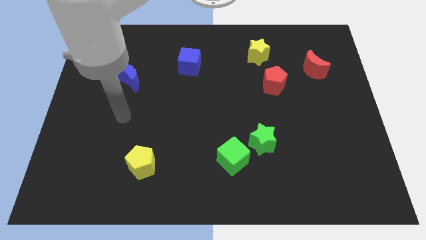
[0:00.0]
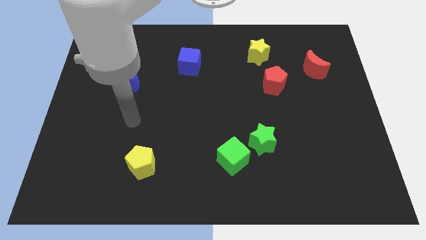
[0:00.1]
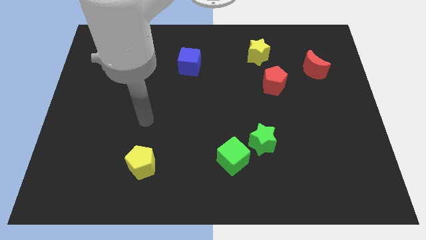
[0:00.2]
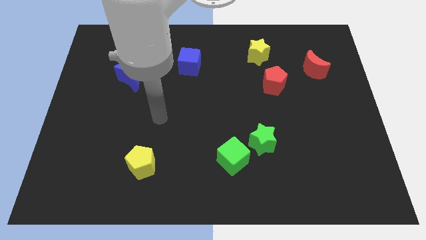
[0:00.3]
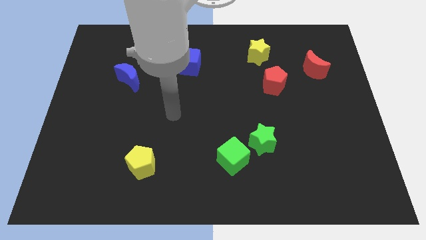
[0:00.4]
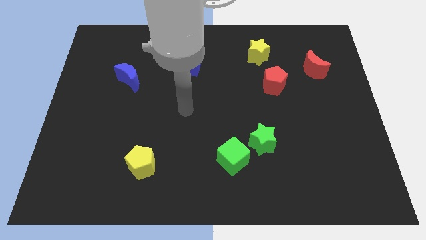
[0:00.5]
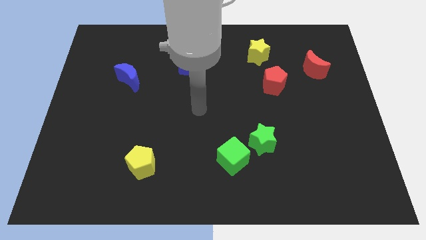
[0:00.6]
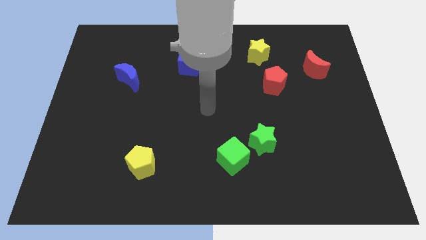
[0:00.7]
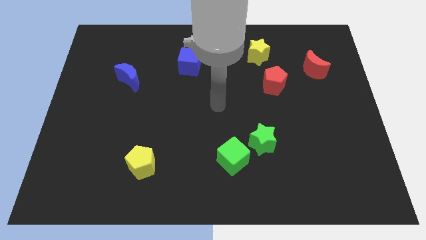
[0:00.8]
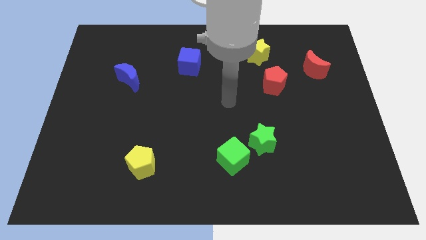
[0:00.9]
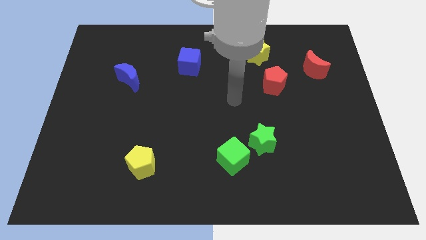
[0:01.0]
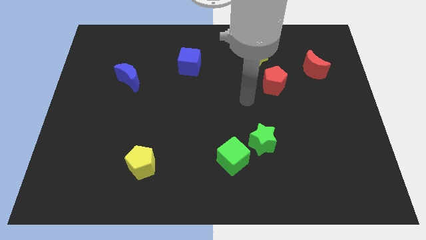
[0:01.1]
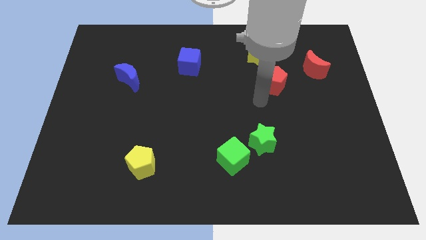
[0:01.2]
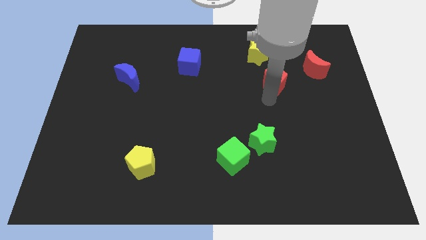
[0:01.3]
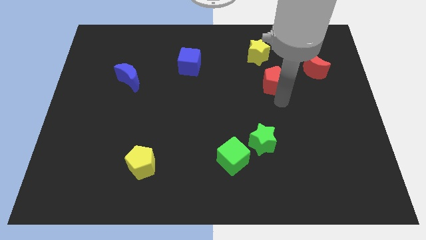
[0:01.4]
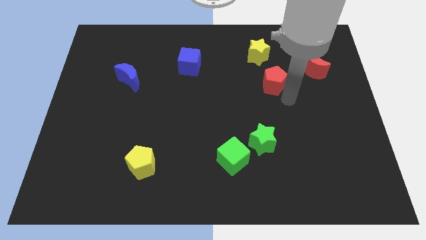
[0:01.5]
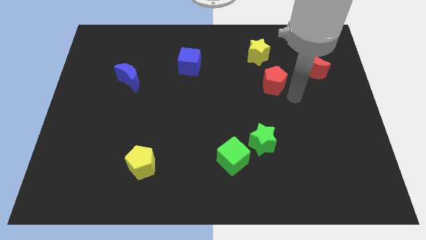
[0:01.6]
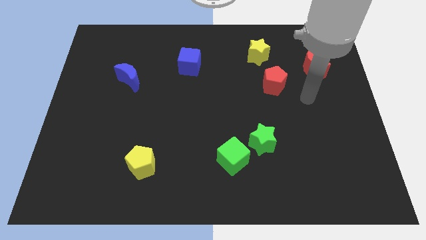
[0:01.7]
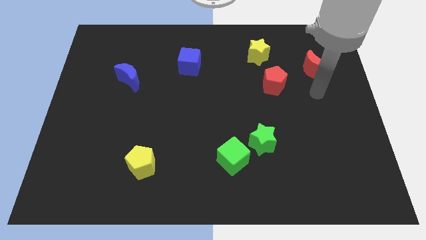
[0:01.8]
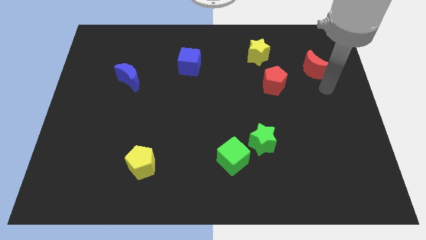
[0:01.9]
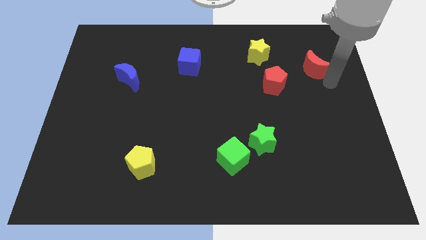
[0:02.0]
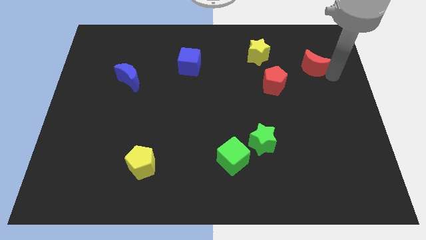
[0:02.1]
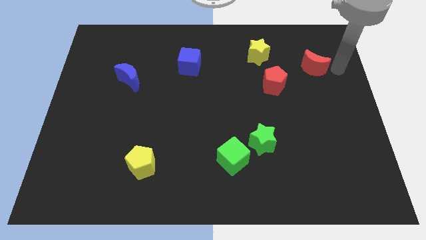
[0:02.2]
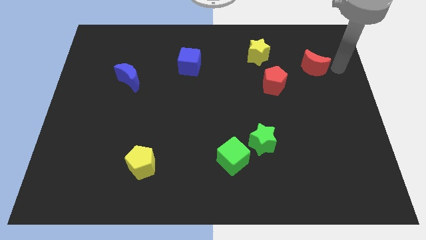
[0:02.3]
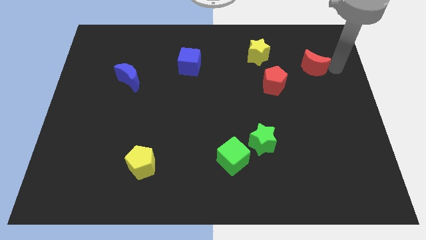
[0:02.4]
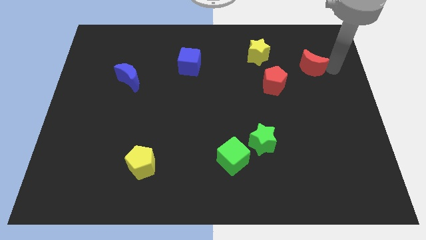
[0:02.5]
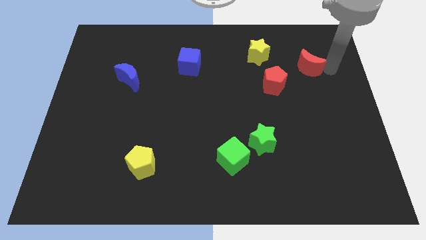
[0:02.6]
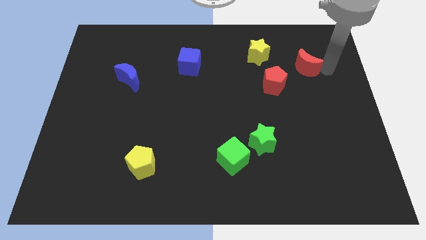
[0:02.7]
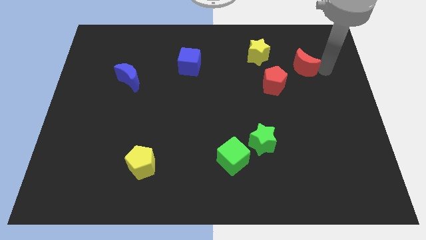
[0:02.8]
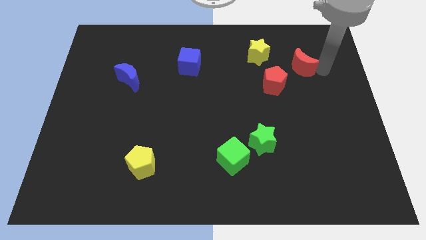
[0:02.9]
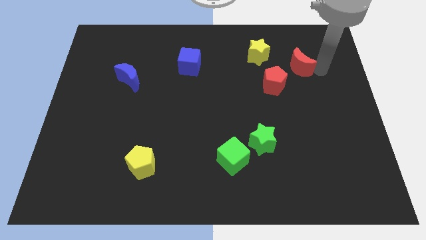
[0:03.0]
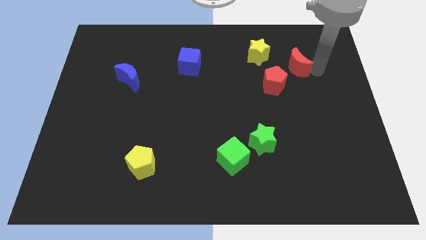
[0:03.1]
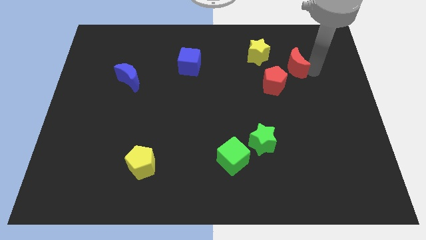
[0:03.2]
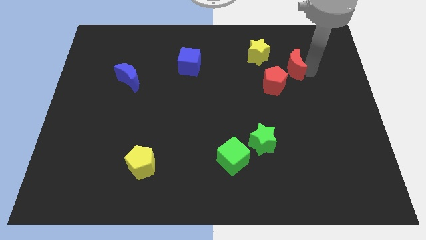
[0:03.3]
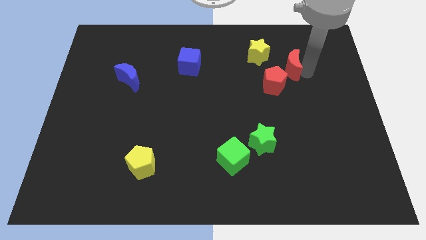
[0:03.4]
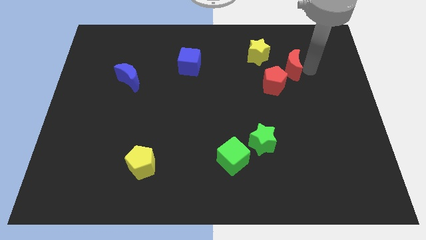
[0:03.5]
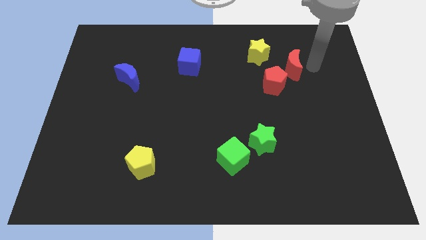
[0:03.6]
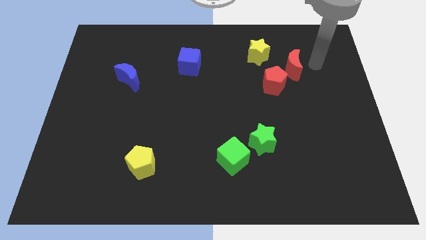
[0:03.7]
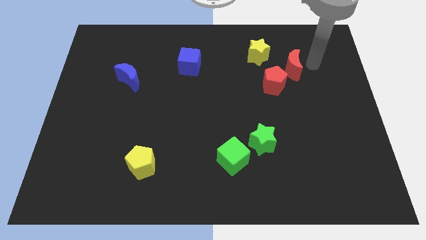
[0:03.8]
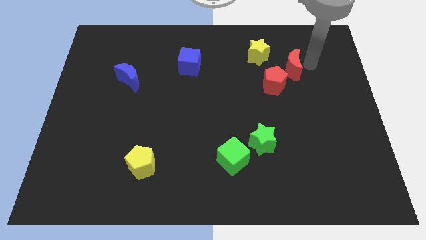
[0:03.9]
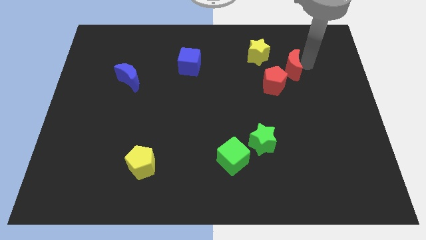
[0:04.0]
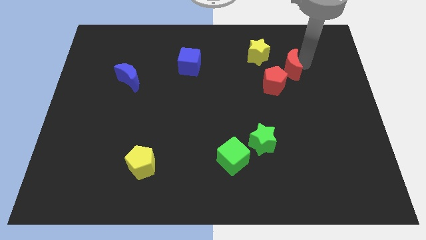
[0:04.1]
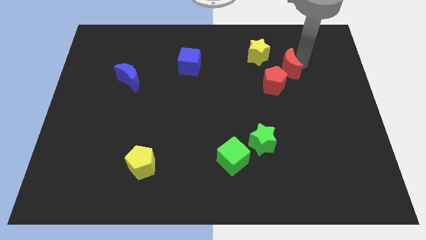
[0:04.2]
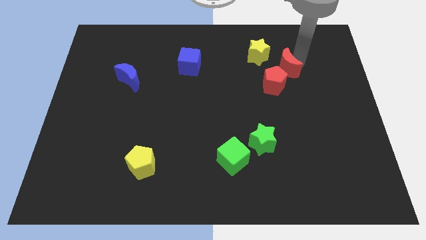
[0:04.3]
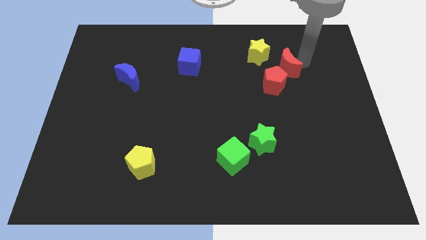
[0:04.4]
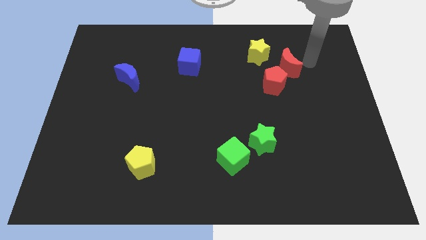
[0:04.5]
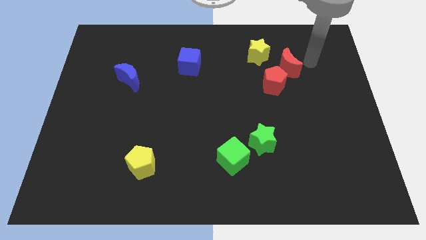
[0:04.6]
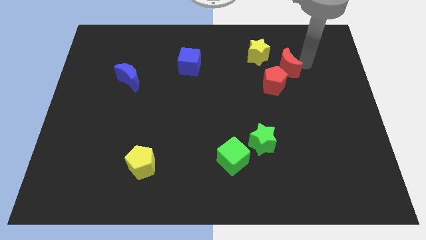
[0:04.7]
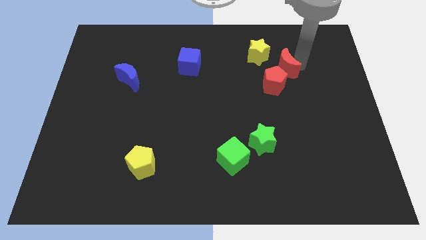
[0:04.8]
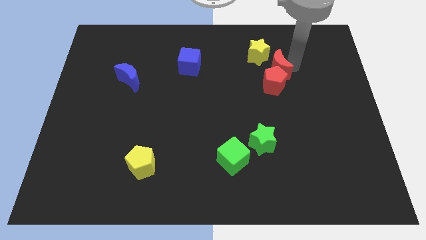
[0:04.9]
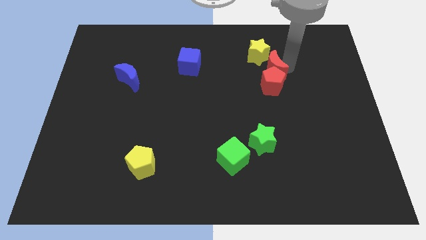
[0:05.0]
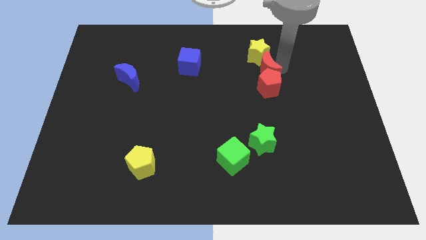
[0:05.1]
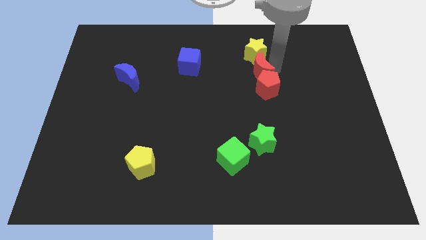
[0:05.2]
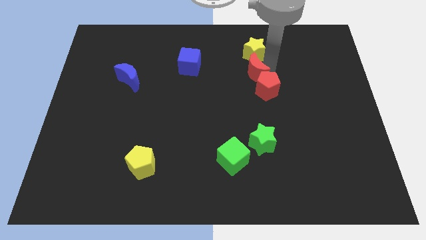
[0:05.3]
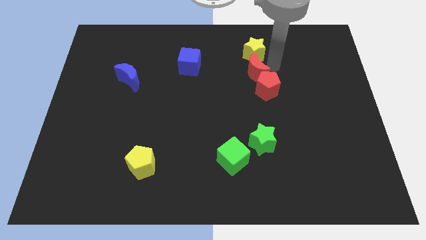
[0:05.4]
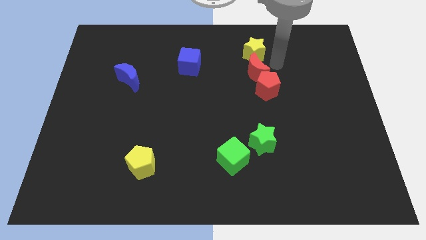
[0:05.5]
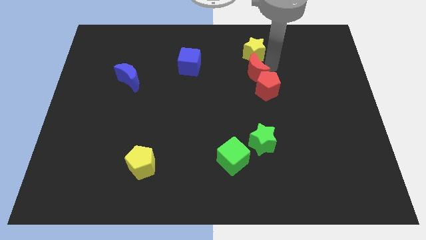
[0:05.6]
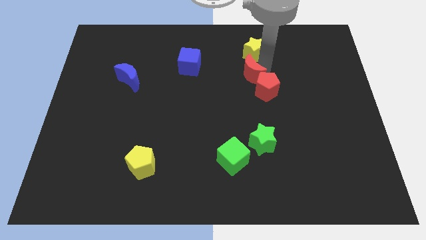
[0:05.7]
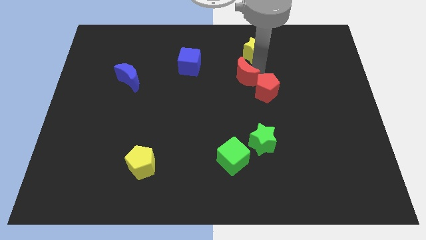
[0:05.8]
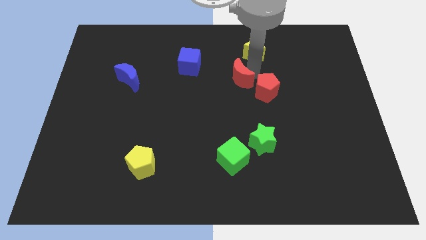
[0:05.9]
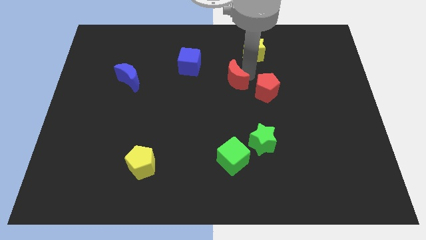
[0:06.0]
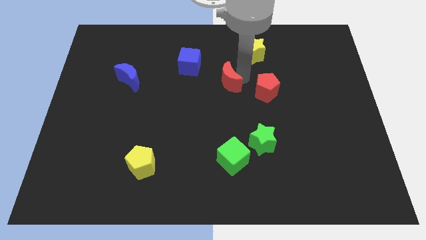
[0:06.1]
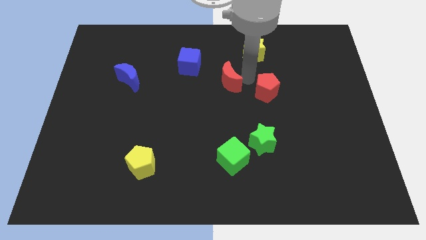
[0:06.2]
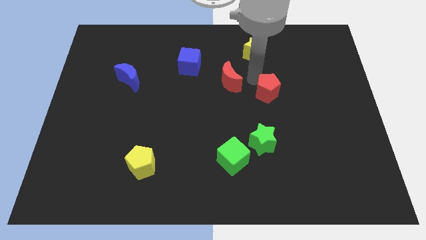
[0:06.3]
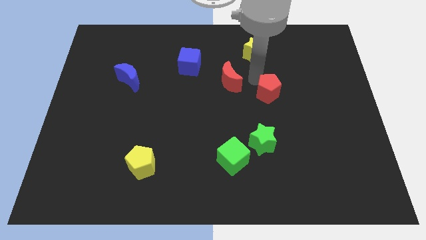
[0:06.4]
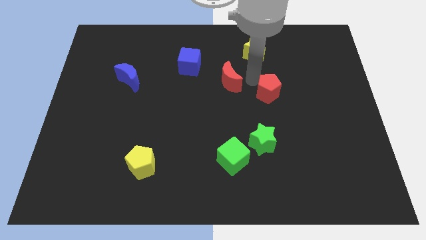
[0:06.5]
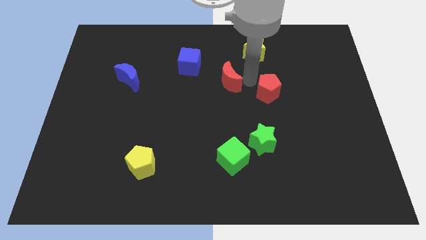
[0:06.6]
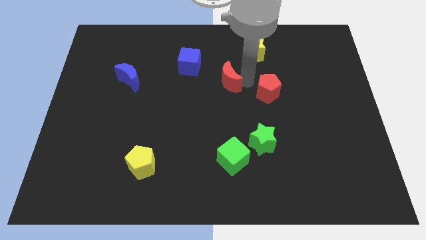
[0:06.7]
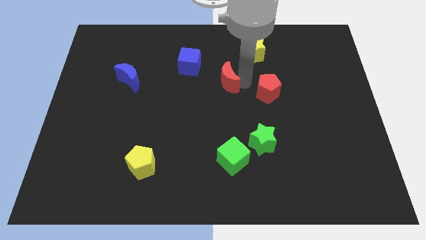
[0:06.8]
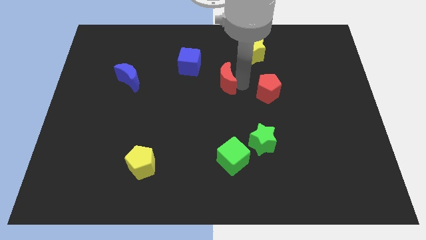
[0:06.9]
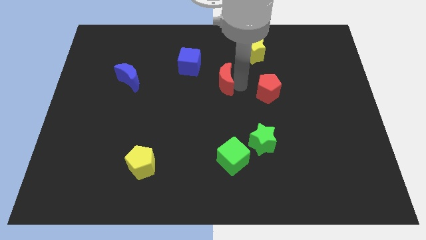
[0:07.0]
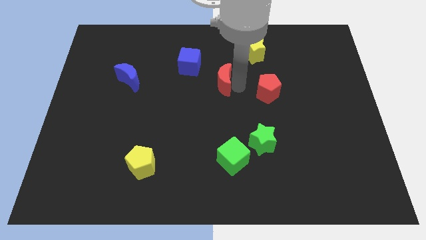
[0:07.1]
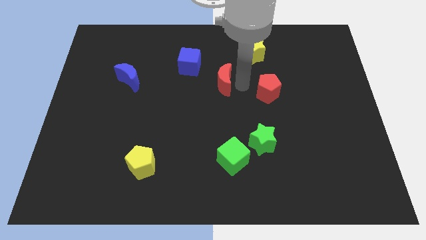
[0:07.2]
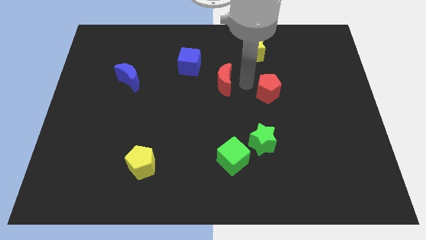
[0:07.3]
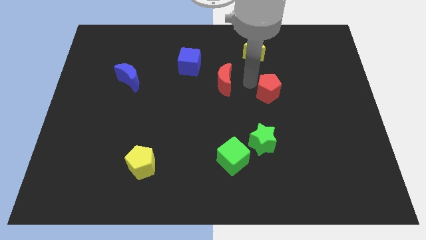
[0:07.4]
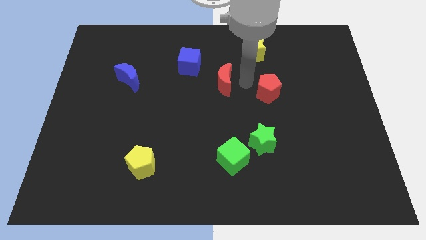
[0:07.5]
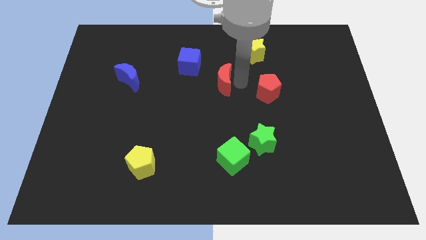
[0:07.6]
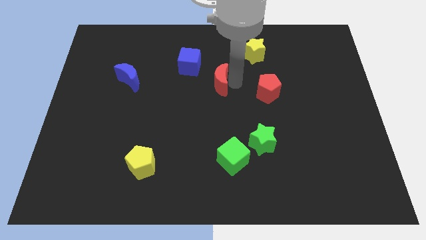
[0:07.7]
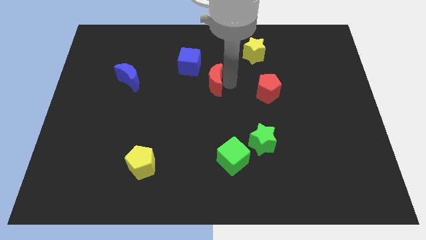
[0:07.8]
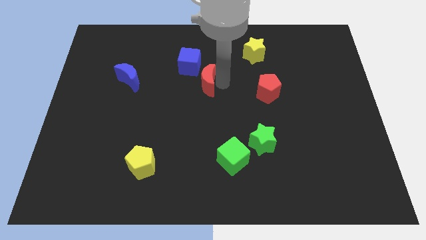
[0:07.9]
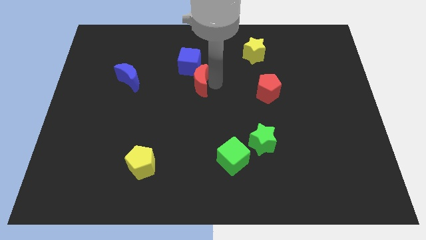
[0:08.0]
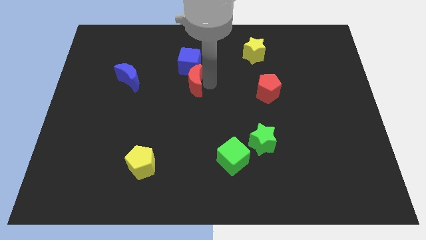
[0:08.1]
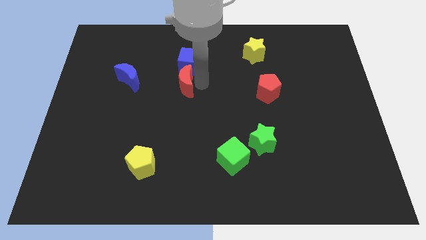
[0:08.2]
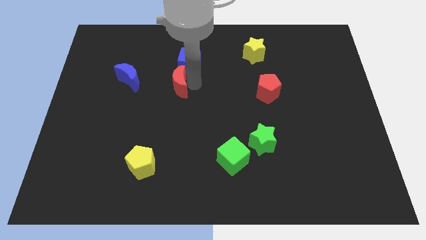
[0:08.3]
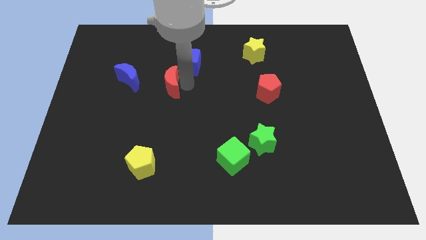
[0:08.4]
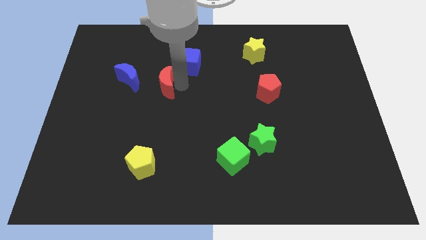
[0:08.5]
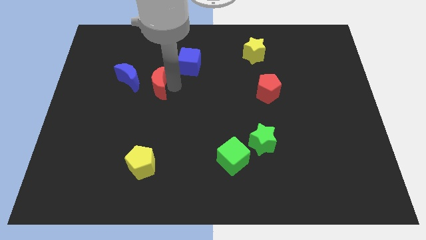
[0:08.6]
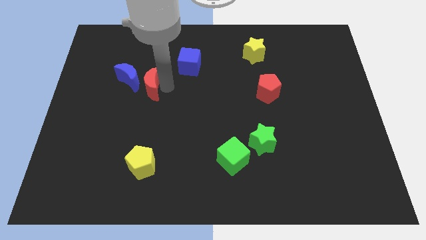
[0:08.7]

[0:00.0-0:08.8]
move the red moon next to the blue moon
